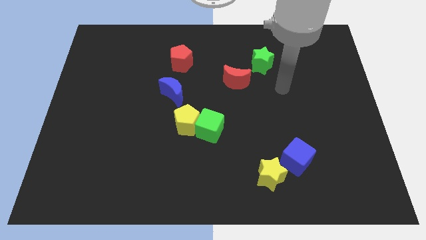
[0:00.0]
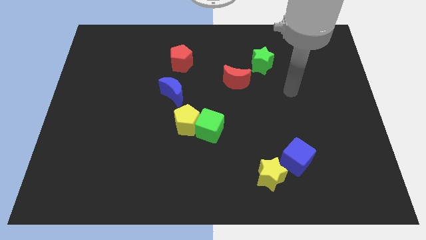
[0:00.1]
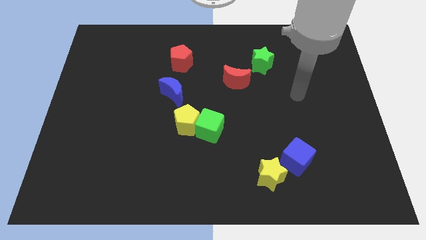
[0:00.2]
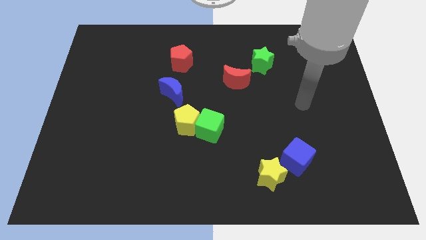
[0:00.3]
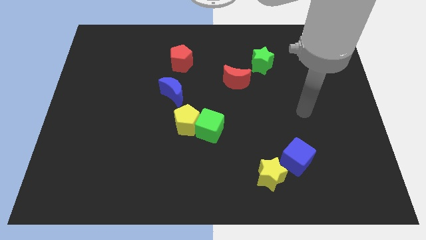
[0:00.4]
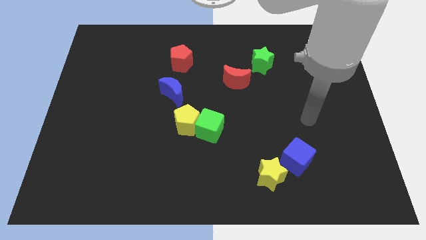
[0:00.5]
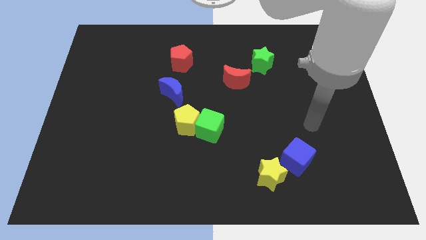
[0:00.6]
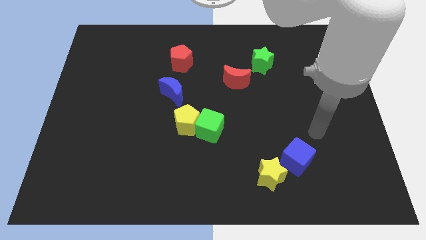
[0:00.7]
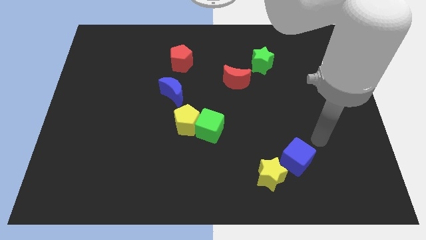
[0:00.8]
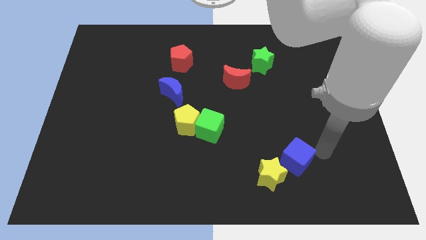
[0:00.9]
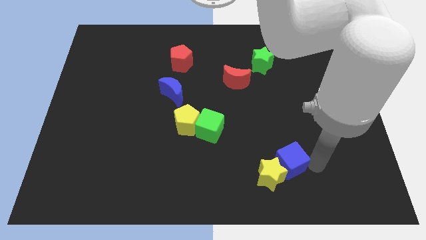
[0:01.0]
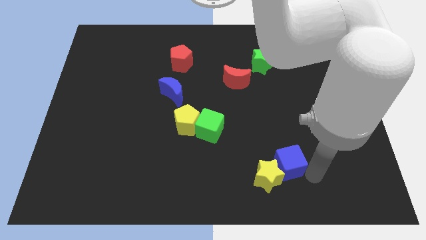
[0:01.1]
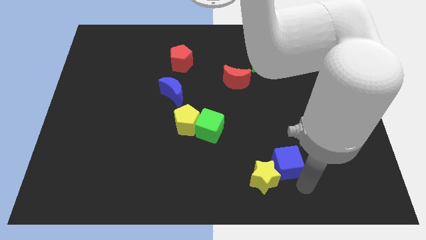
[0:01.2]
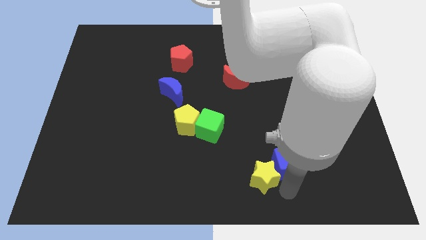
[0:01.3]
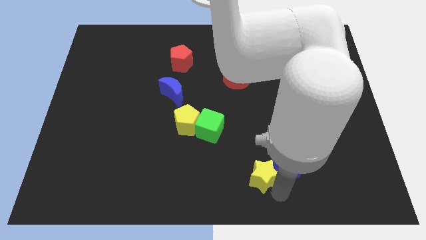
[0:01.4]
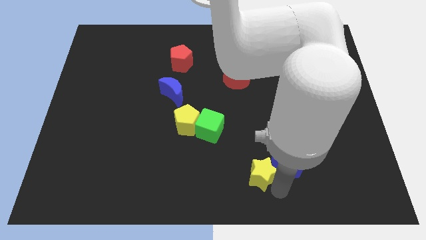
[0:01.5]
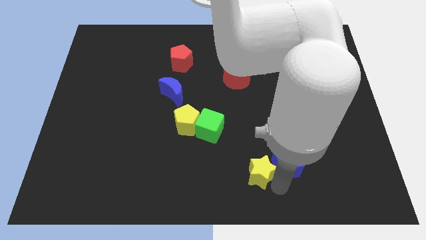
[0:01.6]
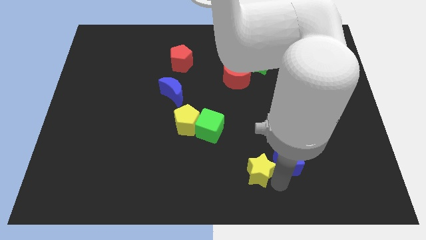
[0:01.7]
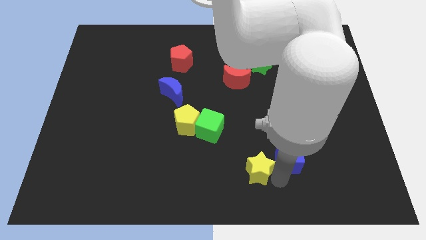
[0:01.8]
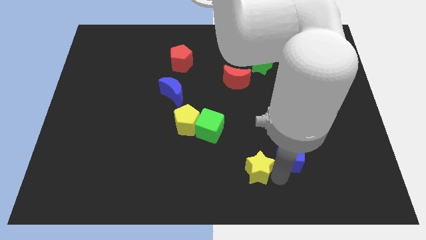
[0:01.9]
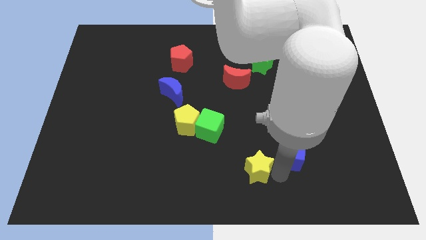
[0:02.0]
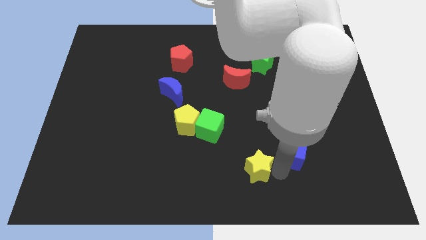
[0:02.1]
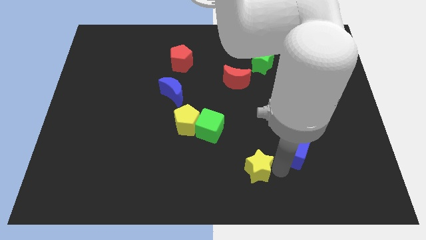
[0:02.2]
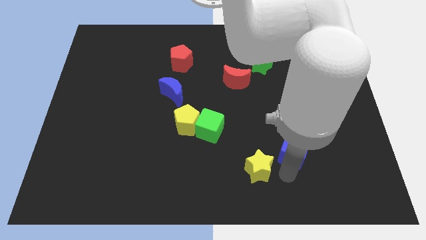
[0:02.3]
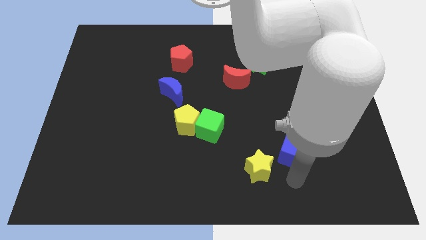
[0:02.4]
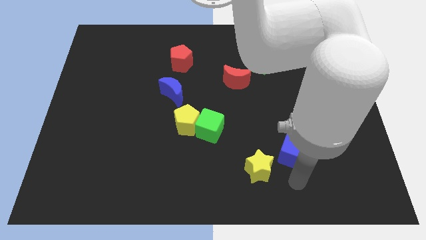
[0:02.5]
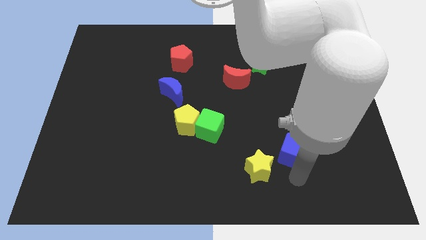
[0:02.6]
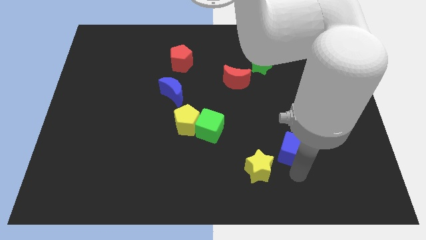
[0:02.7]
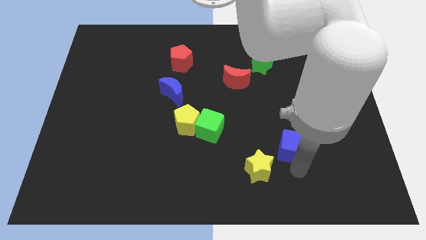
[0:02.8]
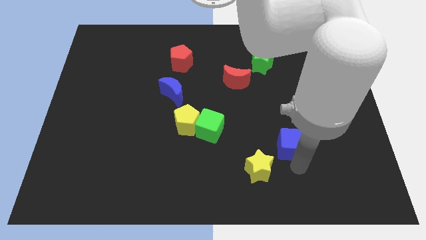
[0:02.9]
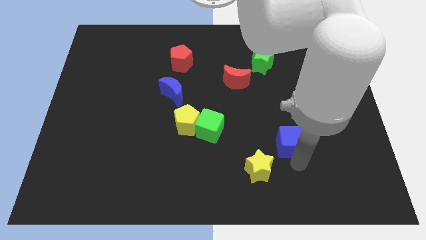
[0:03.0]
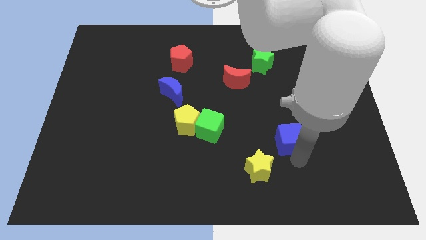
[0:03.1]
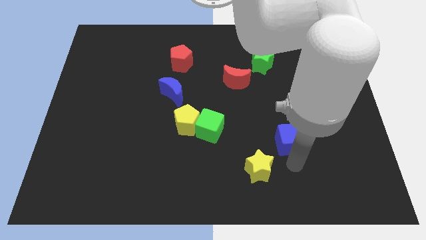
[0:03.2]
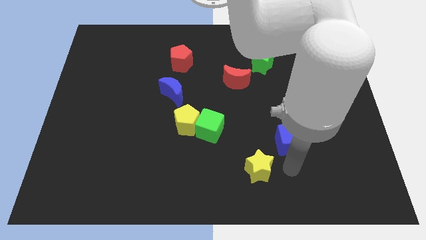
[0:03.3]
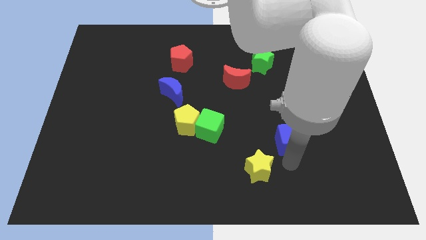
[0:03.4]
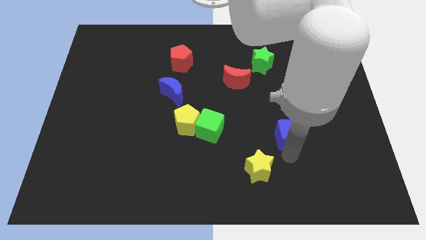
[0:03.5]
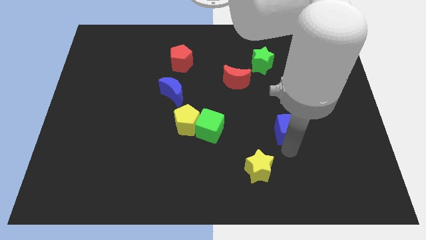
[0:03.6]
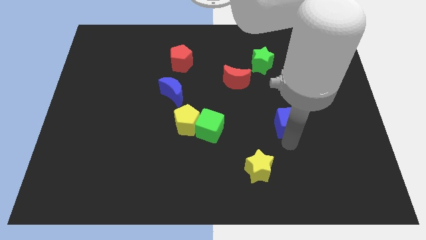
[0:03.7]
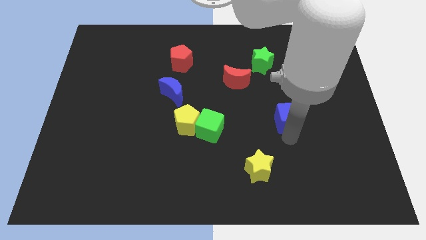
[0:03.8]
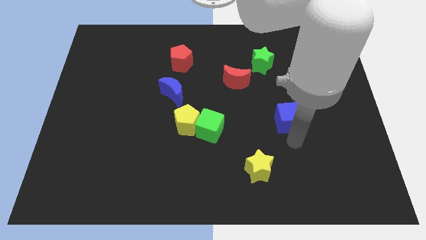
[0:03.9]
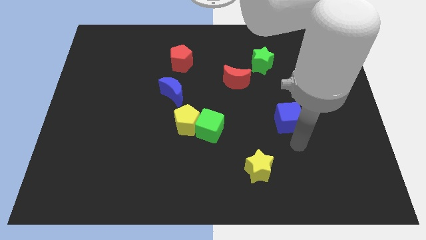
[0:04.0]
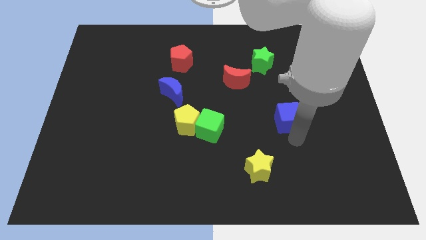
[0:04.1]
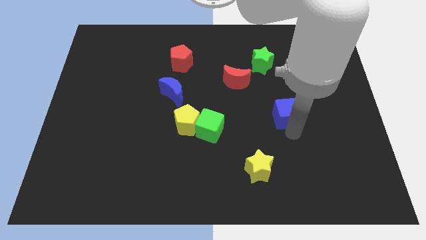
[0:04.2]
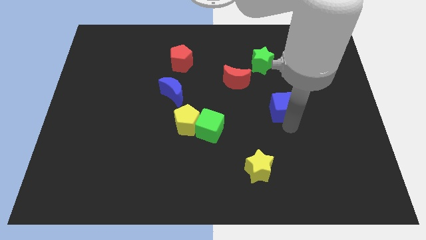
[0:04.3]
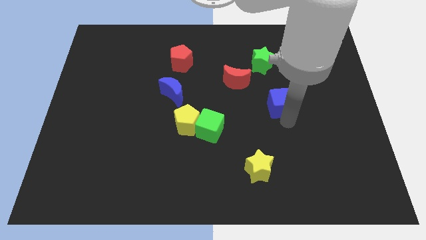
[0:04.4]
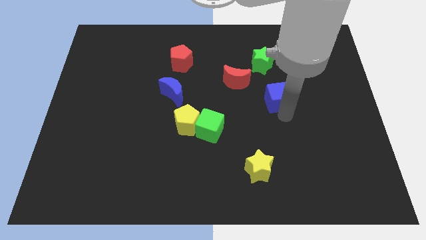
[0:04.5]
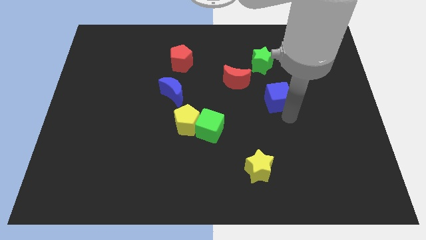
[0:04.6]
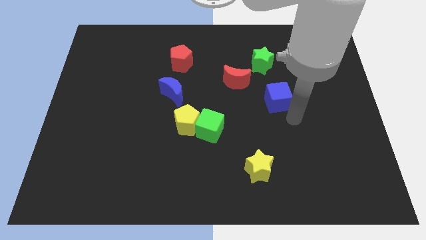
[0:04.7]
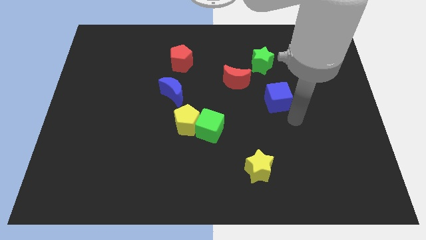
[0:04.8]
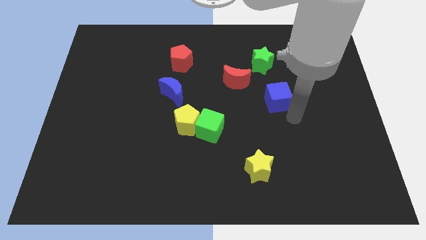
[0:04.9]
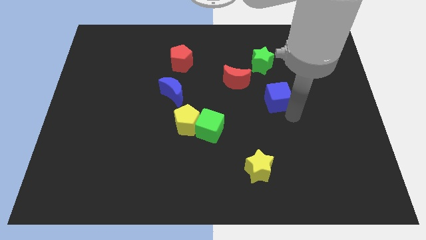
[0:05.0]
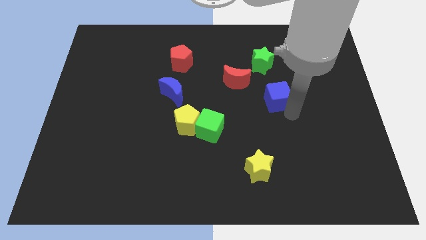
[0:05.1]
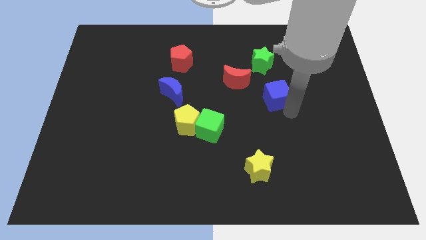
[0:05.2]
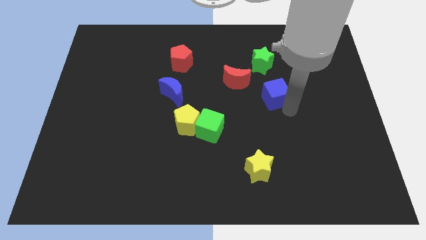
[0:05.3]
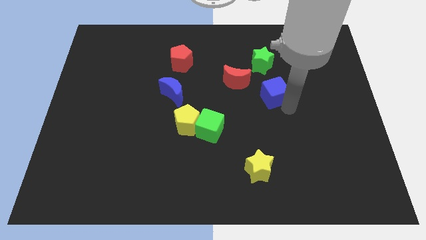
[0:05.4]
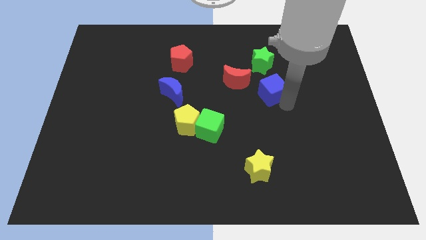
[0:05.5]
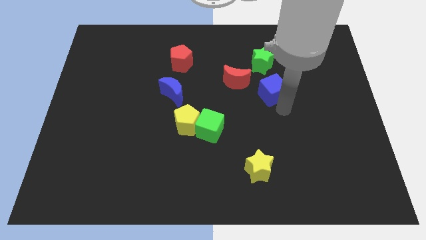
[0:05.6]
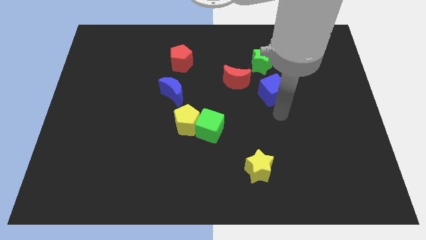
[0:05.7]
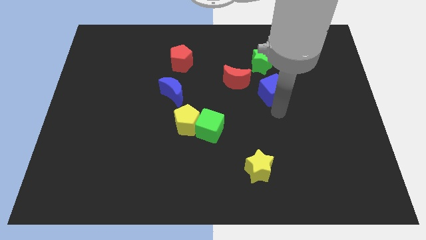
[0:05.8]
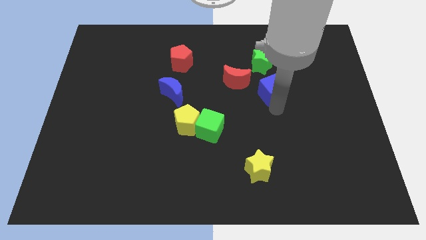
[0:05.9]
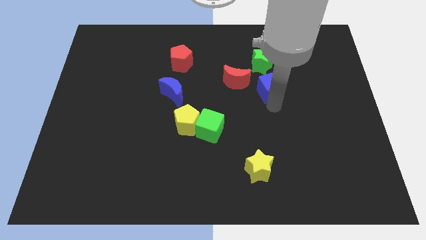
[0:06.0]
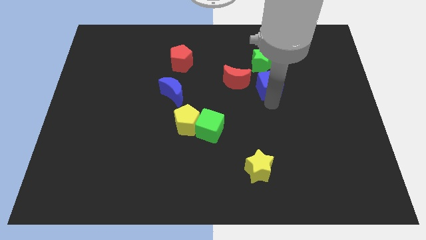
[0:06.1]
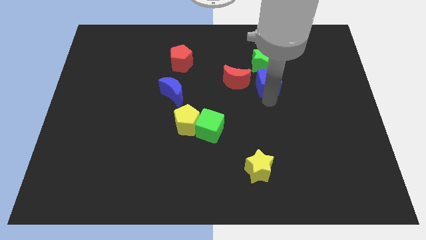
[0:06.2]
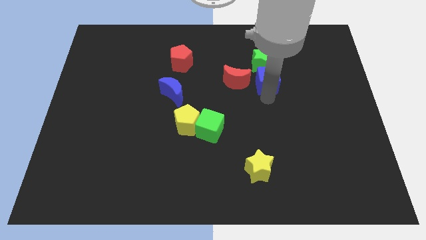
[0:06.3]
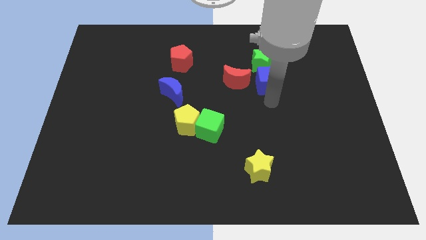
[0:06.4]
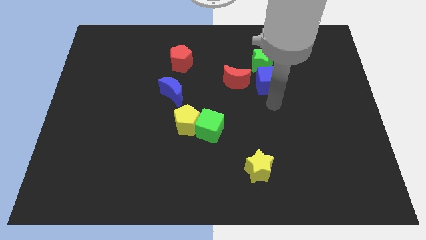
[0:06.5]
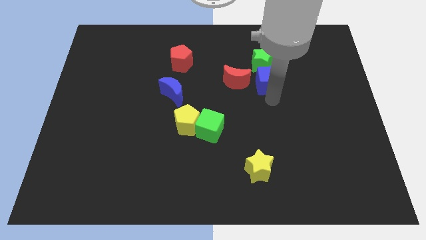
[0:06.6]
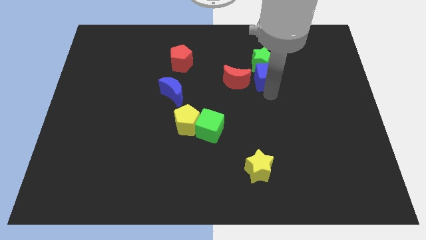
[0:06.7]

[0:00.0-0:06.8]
move the blue cube towards the green star

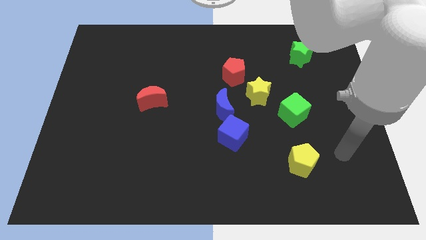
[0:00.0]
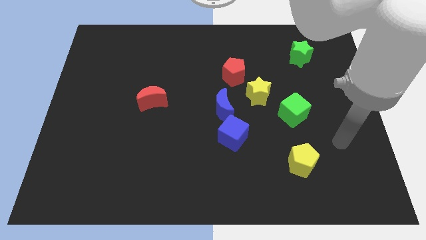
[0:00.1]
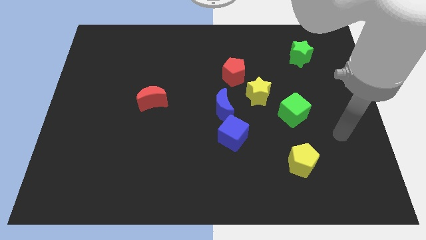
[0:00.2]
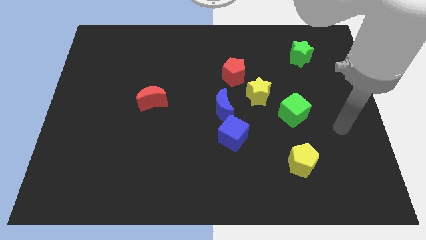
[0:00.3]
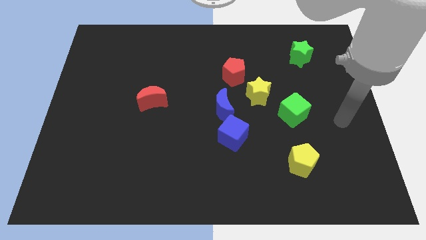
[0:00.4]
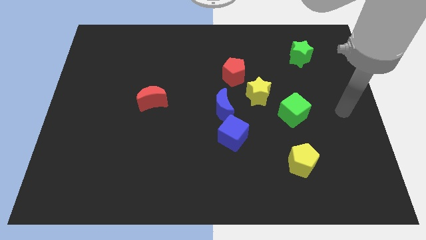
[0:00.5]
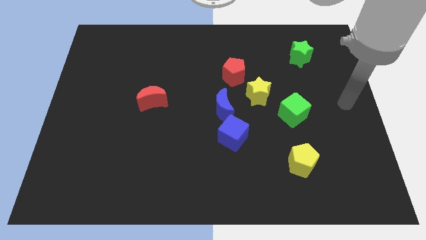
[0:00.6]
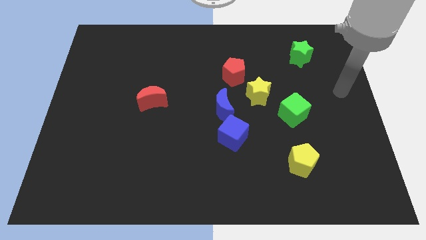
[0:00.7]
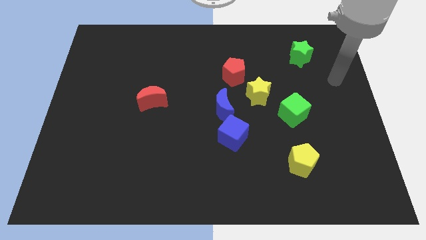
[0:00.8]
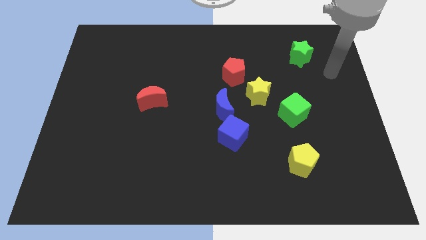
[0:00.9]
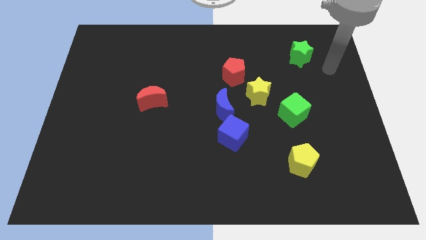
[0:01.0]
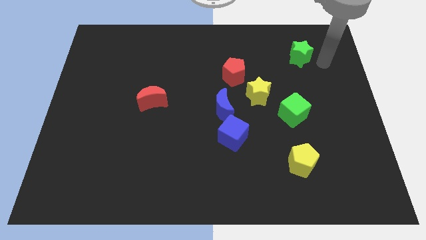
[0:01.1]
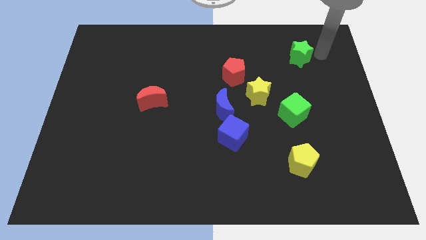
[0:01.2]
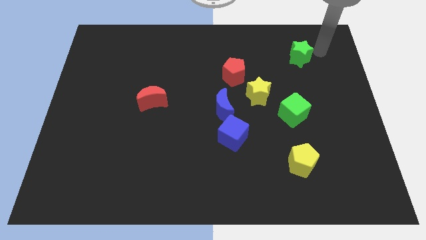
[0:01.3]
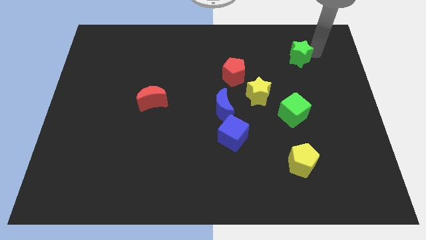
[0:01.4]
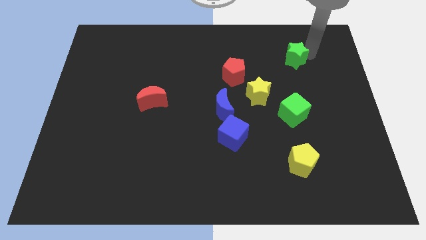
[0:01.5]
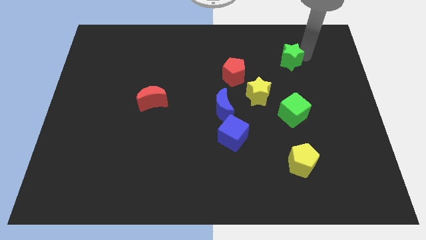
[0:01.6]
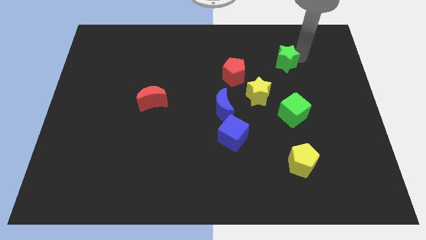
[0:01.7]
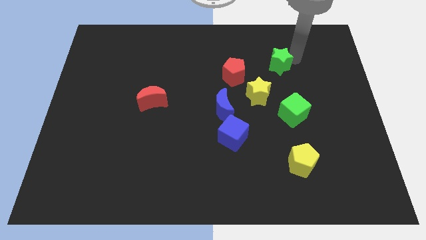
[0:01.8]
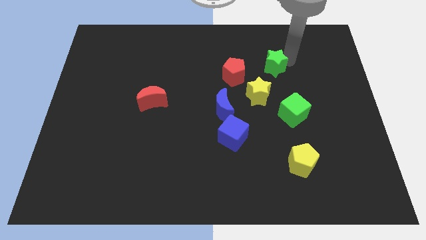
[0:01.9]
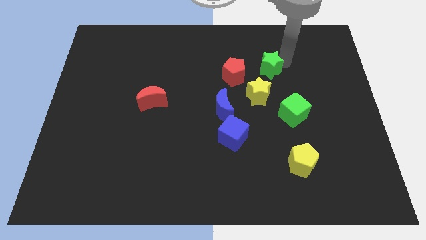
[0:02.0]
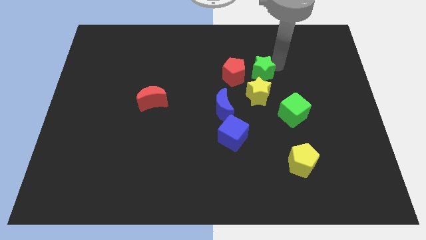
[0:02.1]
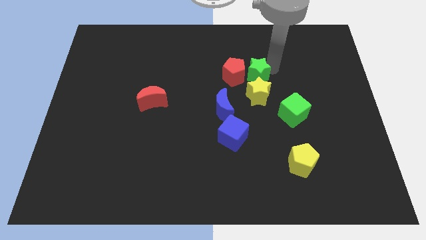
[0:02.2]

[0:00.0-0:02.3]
move the green star towards the red pentagon
